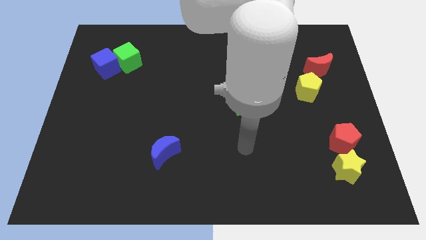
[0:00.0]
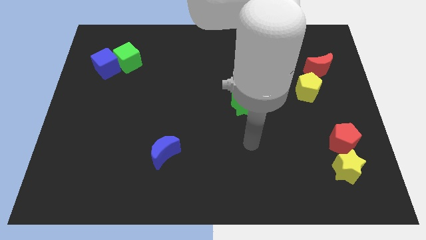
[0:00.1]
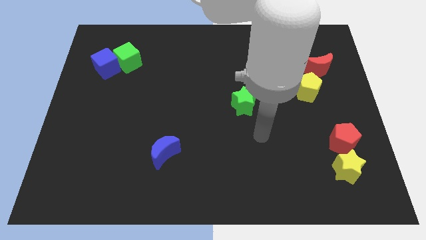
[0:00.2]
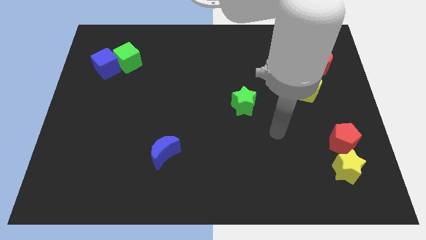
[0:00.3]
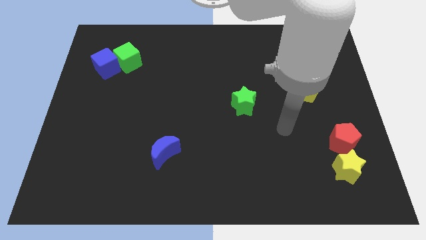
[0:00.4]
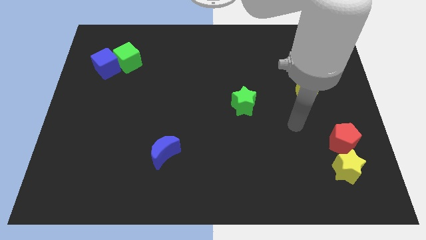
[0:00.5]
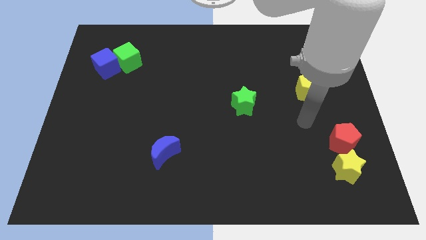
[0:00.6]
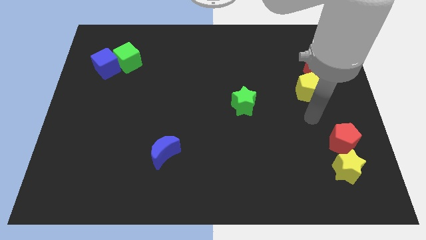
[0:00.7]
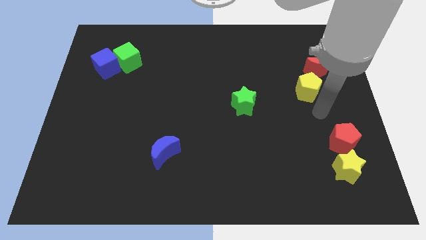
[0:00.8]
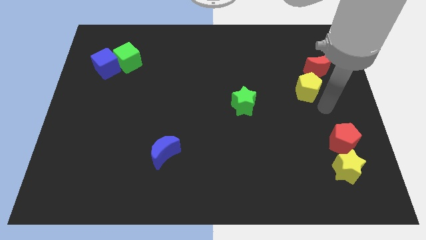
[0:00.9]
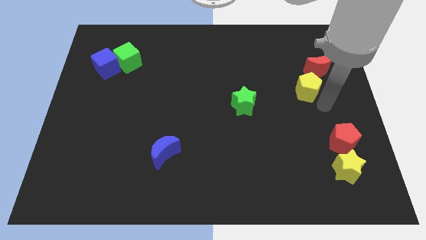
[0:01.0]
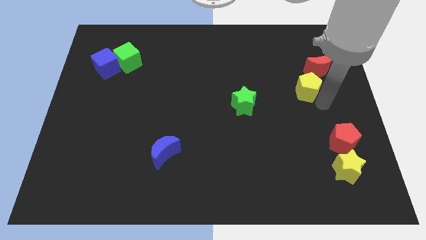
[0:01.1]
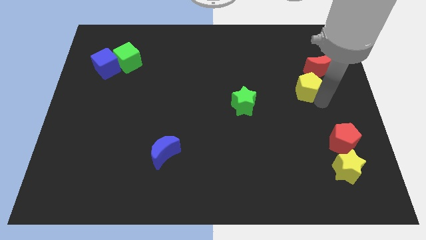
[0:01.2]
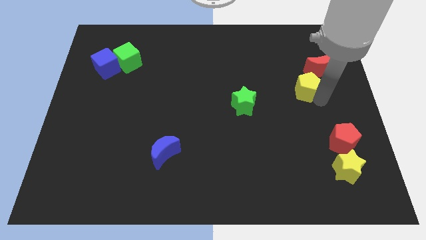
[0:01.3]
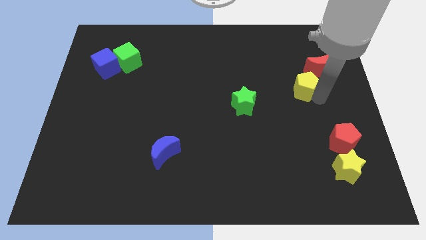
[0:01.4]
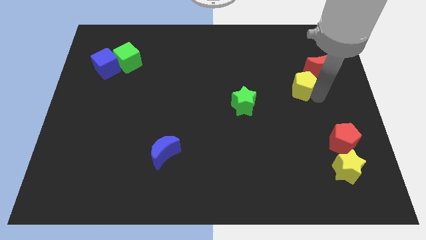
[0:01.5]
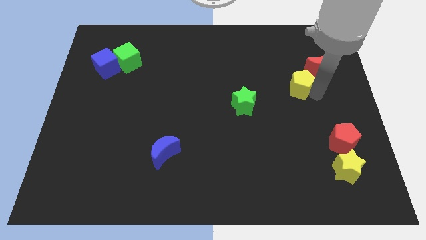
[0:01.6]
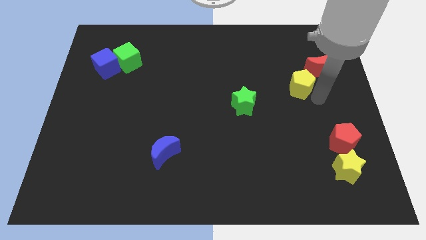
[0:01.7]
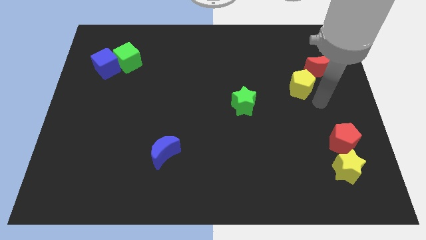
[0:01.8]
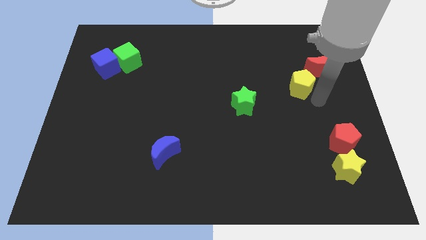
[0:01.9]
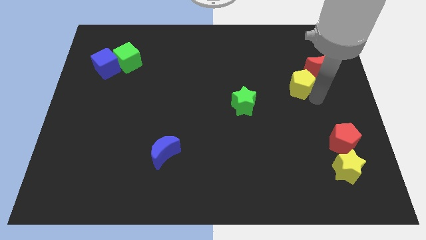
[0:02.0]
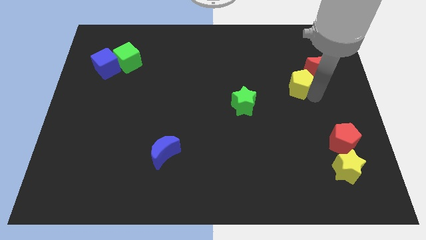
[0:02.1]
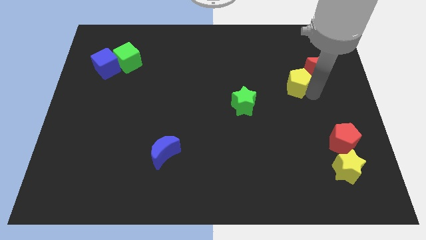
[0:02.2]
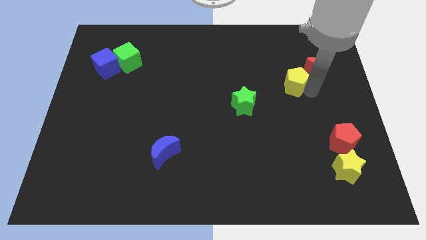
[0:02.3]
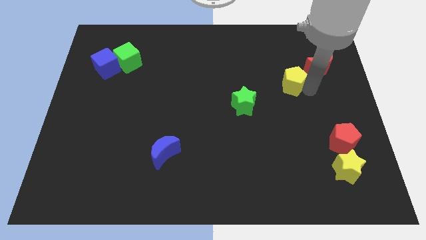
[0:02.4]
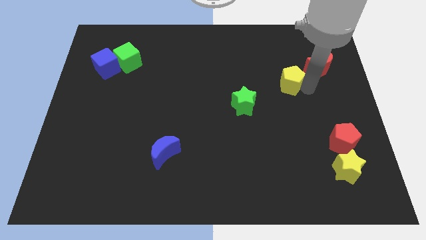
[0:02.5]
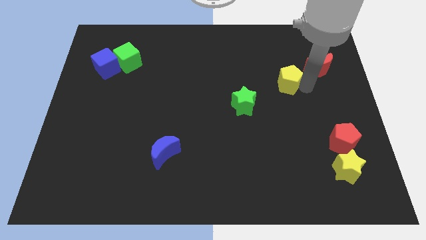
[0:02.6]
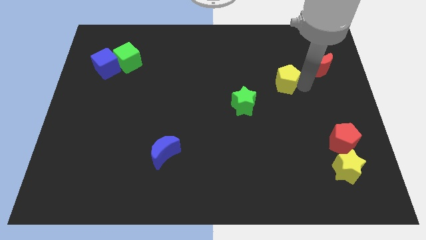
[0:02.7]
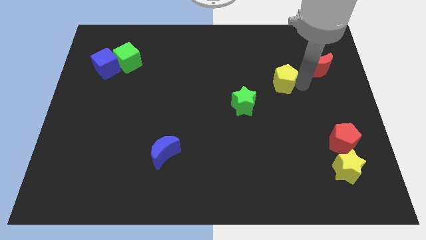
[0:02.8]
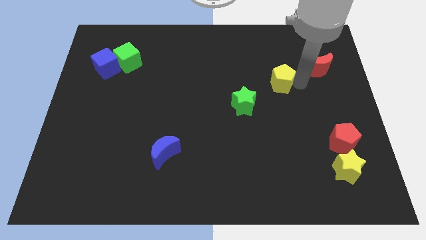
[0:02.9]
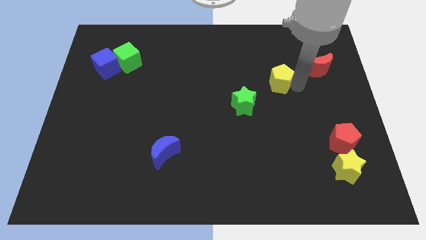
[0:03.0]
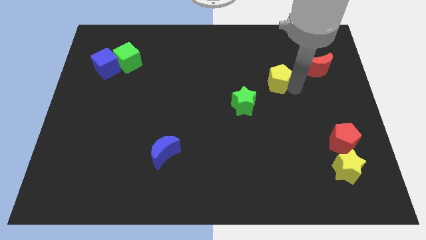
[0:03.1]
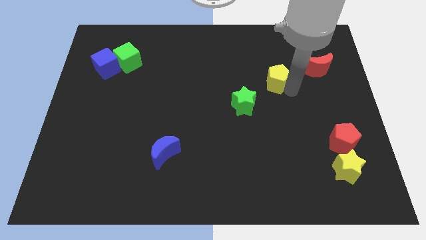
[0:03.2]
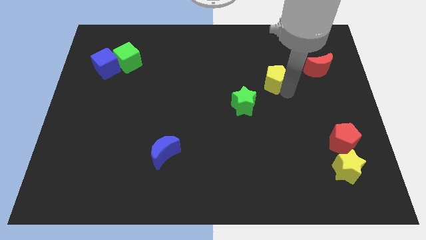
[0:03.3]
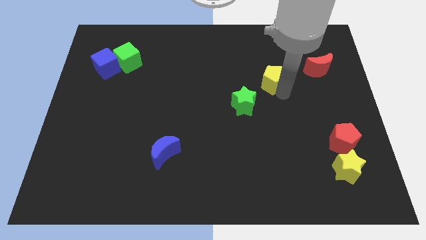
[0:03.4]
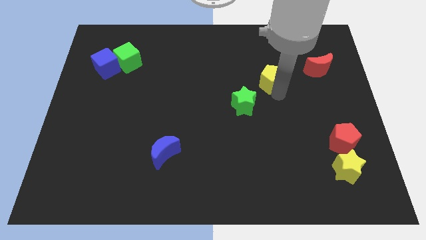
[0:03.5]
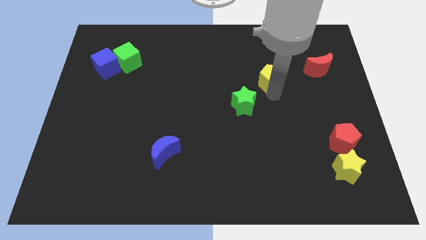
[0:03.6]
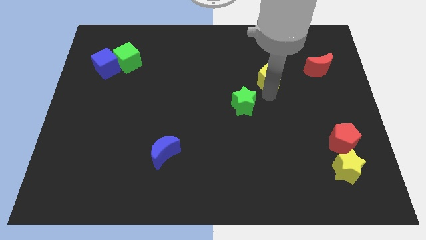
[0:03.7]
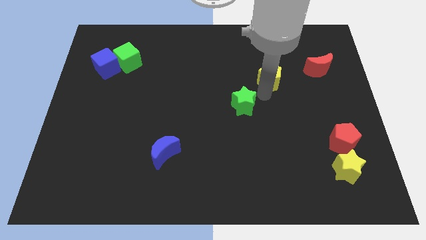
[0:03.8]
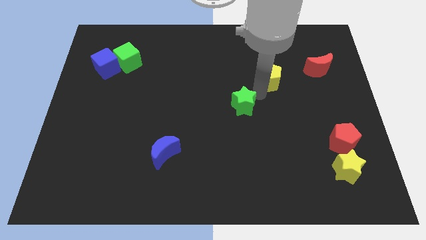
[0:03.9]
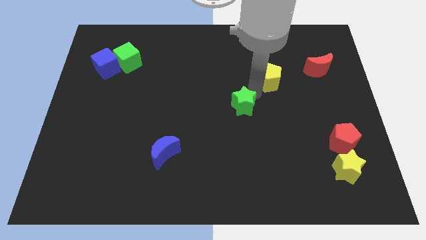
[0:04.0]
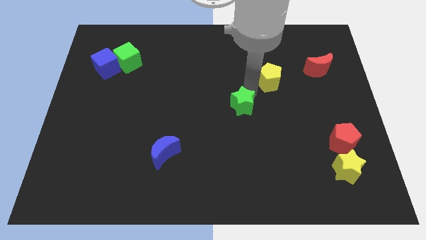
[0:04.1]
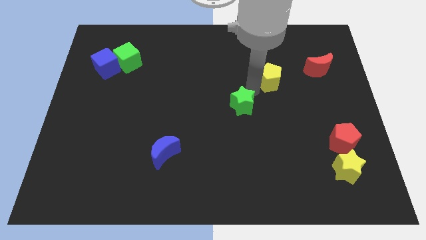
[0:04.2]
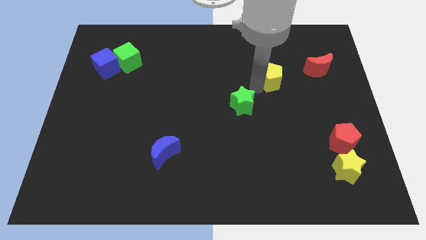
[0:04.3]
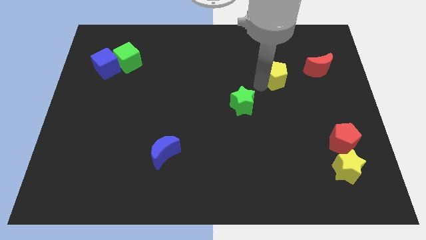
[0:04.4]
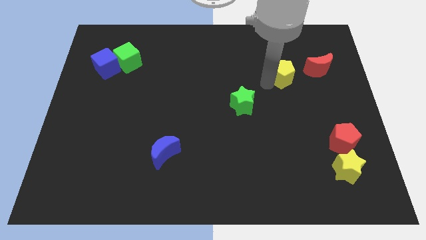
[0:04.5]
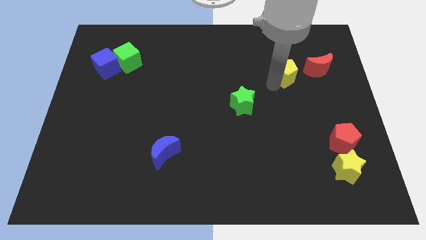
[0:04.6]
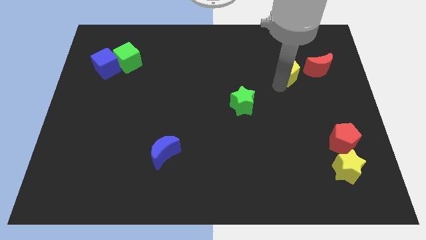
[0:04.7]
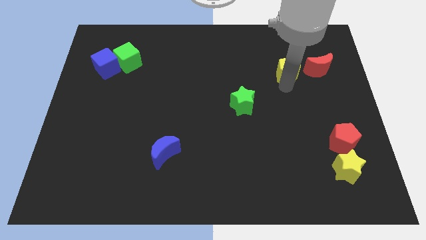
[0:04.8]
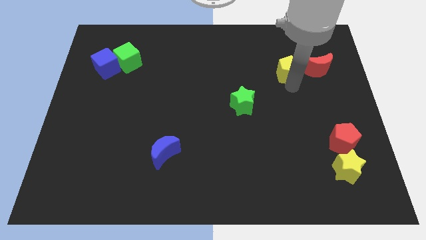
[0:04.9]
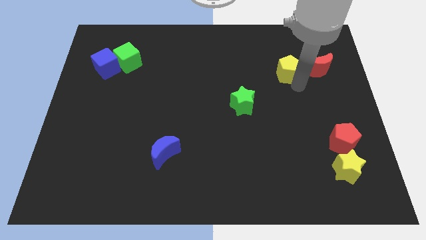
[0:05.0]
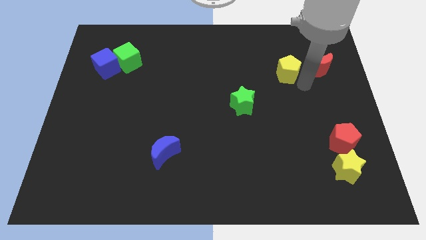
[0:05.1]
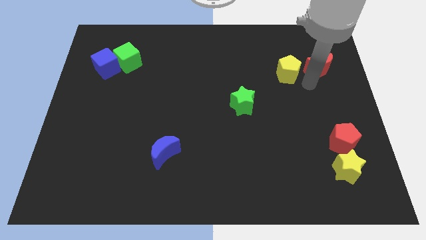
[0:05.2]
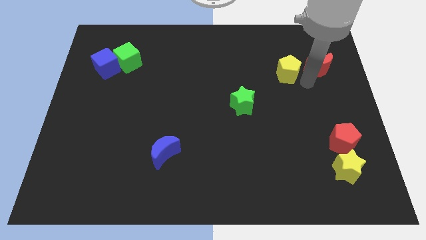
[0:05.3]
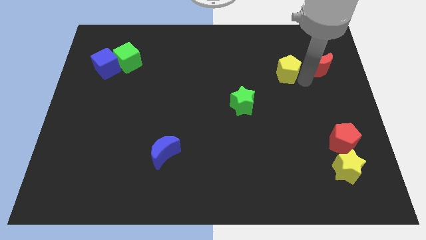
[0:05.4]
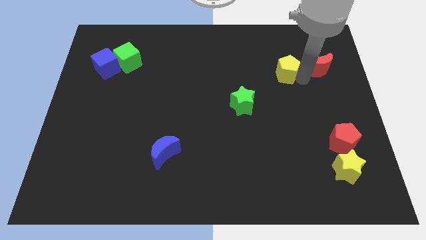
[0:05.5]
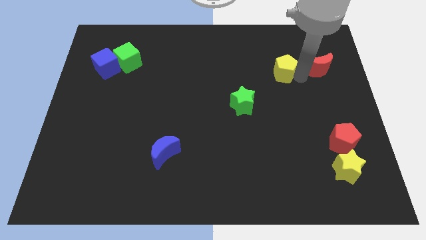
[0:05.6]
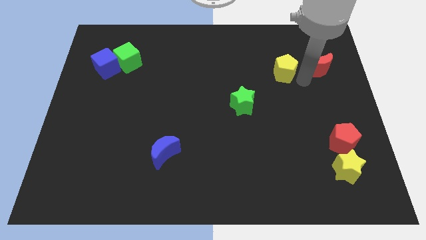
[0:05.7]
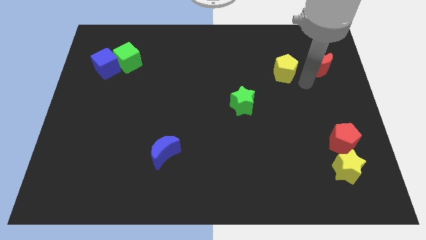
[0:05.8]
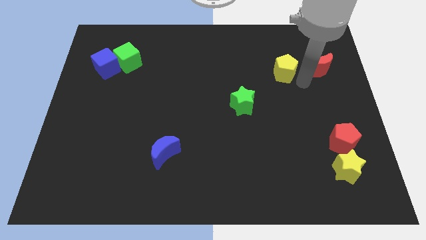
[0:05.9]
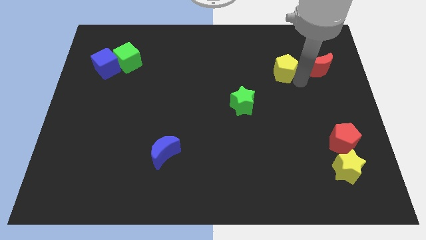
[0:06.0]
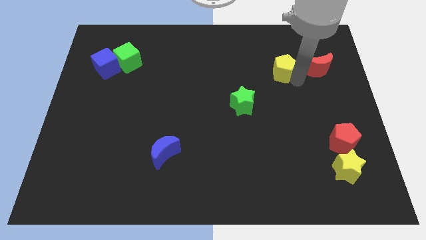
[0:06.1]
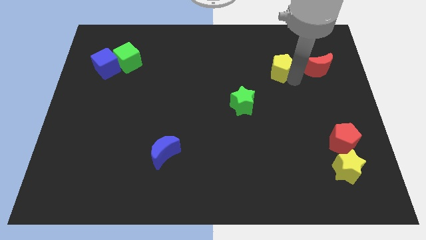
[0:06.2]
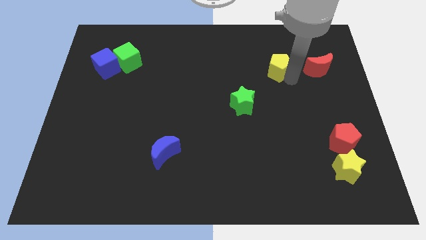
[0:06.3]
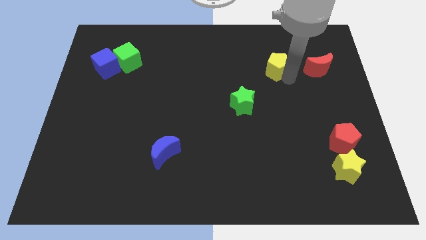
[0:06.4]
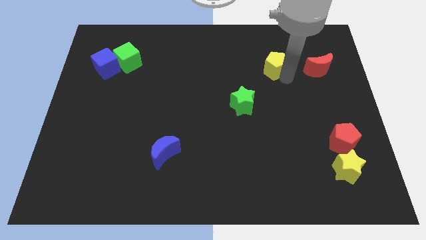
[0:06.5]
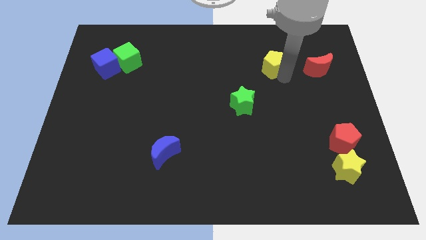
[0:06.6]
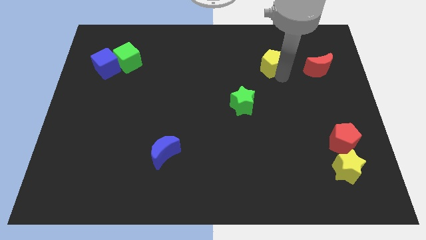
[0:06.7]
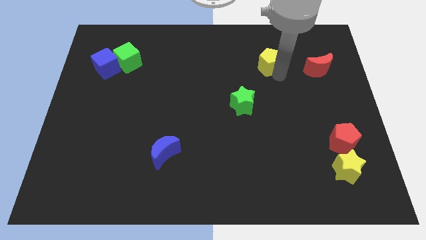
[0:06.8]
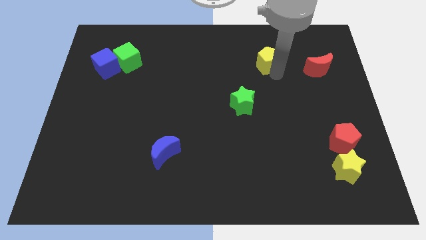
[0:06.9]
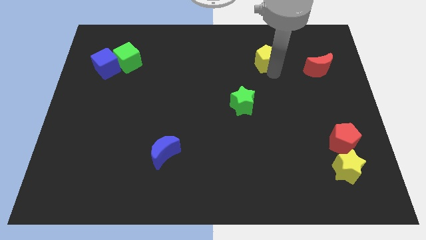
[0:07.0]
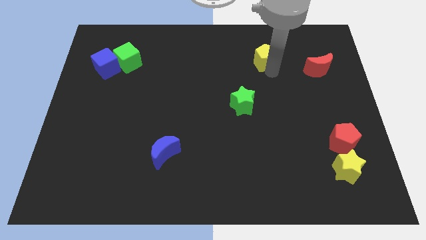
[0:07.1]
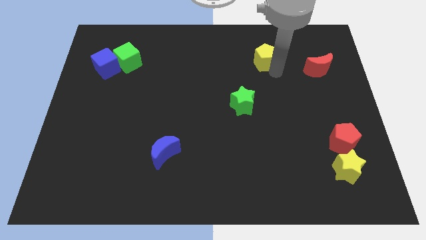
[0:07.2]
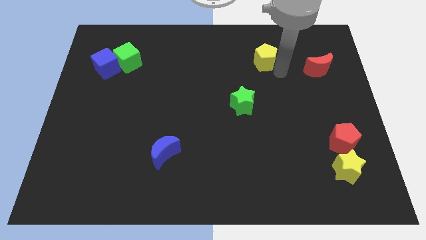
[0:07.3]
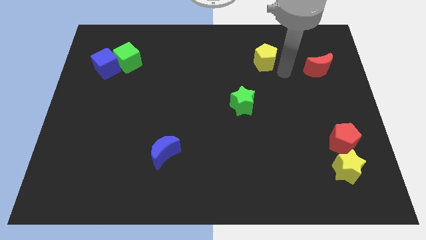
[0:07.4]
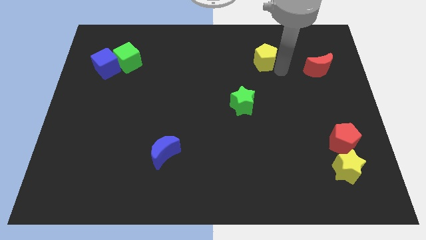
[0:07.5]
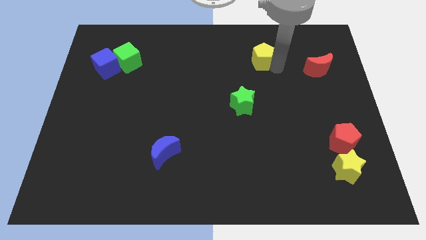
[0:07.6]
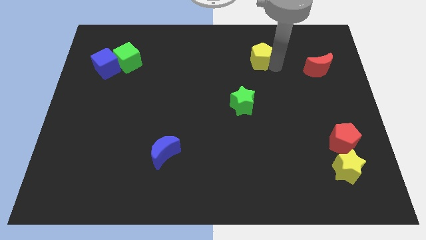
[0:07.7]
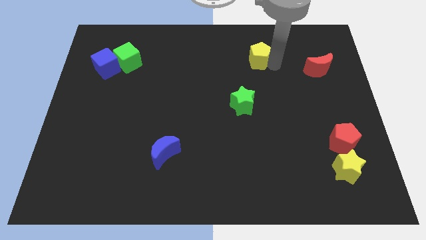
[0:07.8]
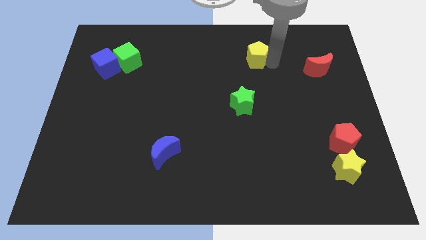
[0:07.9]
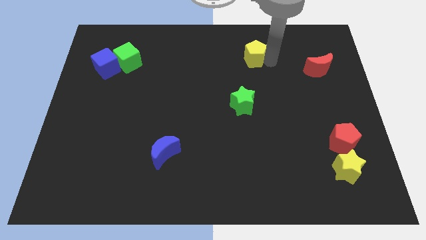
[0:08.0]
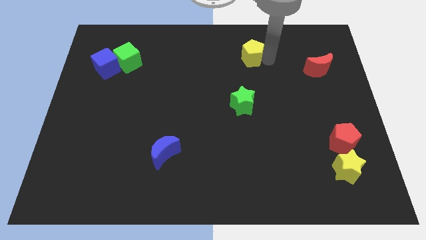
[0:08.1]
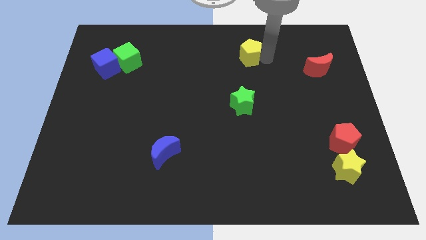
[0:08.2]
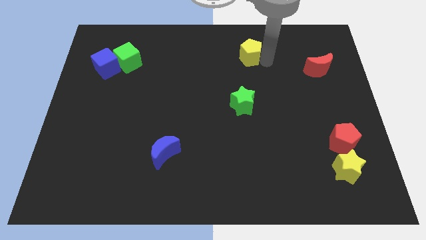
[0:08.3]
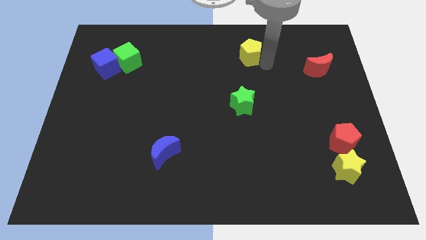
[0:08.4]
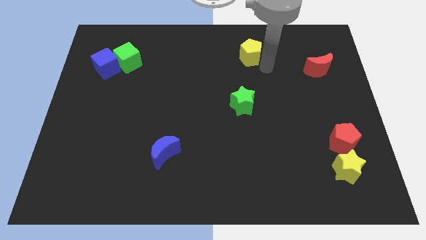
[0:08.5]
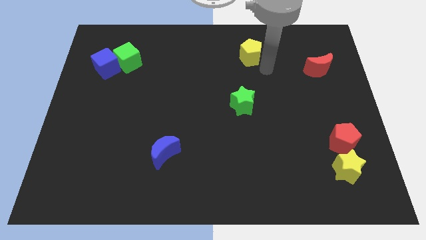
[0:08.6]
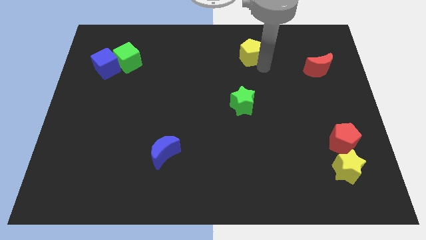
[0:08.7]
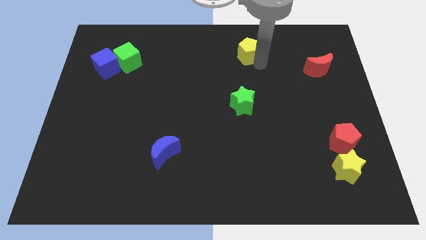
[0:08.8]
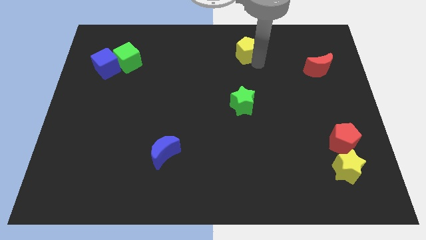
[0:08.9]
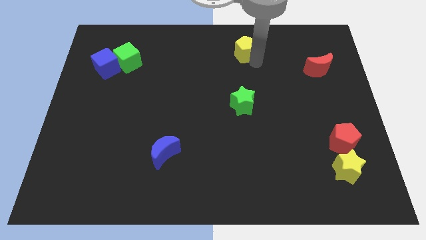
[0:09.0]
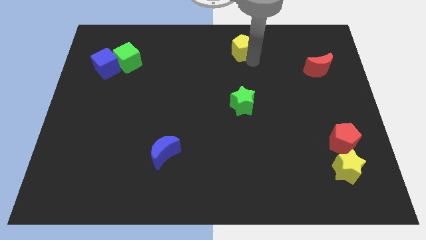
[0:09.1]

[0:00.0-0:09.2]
move the yellow pentagon to the top
